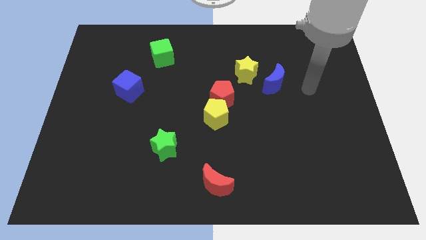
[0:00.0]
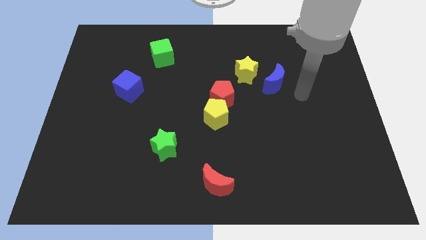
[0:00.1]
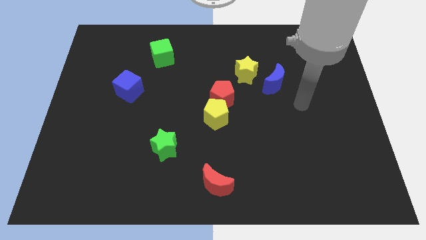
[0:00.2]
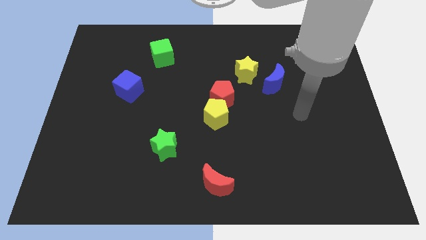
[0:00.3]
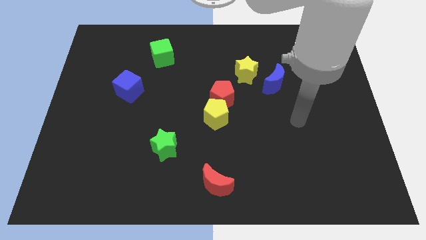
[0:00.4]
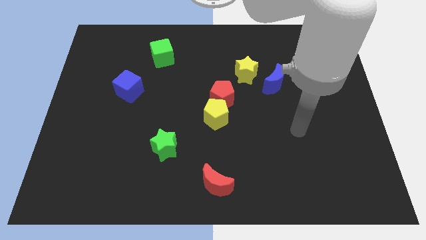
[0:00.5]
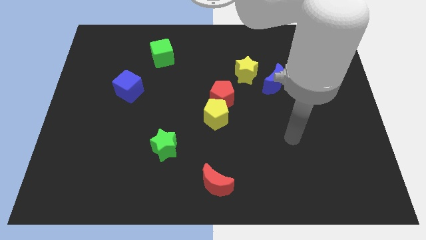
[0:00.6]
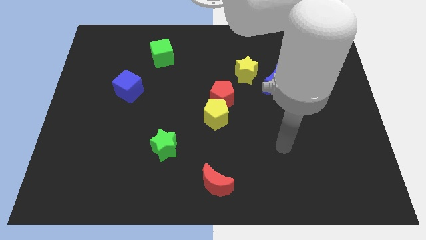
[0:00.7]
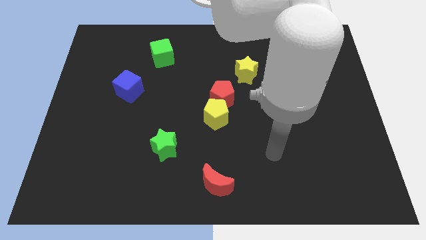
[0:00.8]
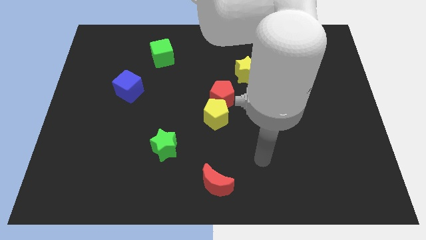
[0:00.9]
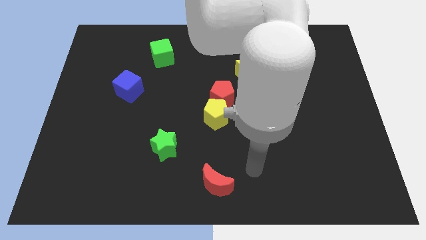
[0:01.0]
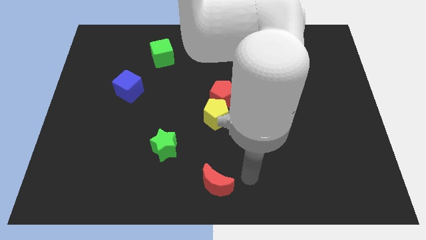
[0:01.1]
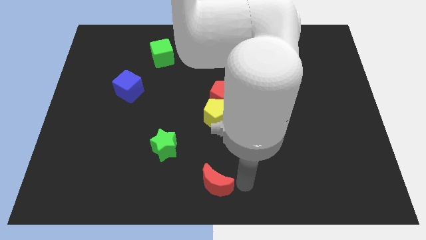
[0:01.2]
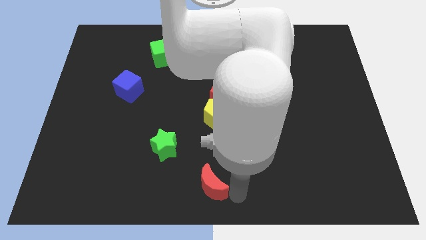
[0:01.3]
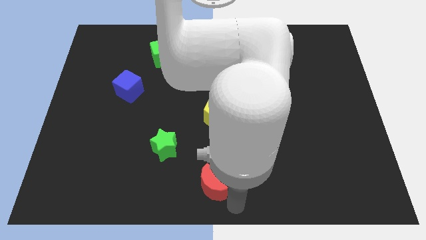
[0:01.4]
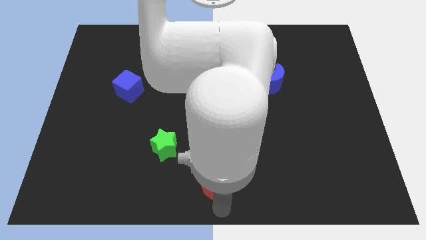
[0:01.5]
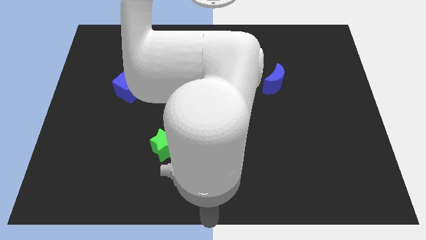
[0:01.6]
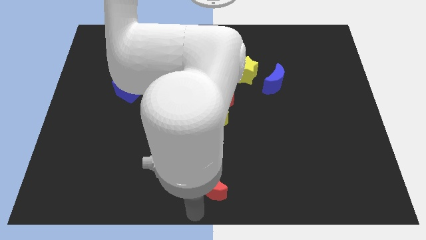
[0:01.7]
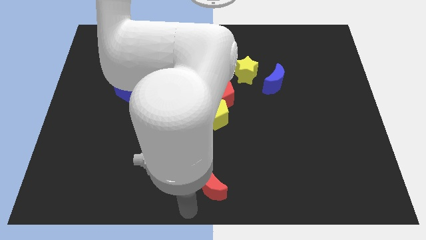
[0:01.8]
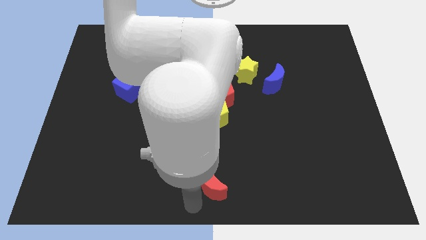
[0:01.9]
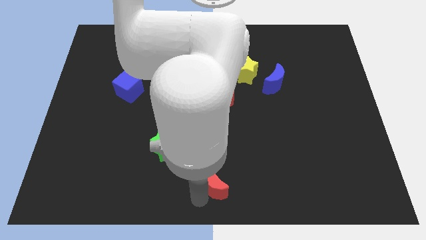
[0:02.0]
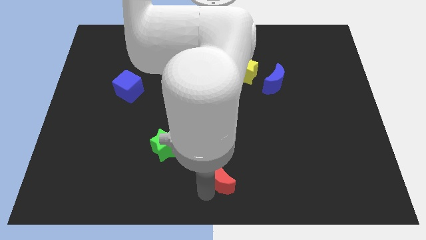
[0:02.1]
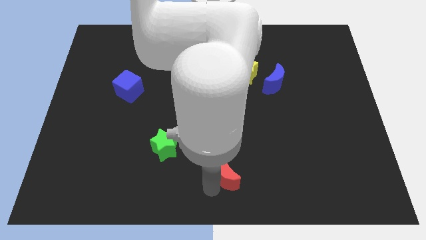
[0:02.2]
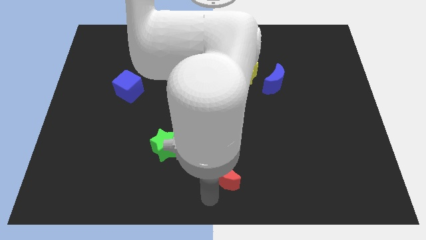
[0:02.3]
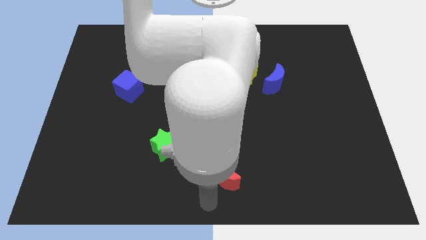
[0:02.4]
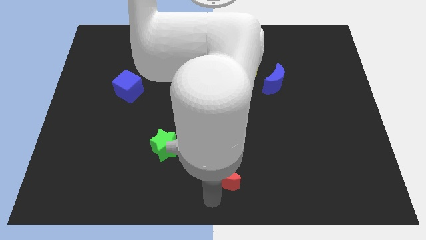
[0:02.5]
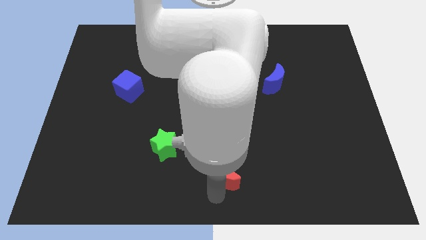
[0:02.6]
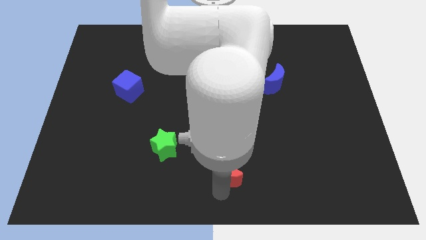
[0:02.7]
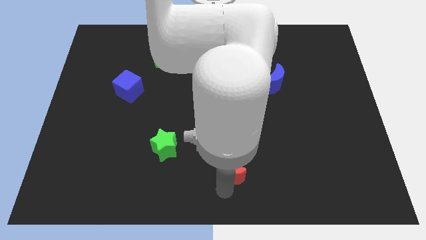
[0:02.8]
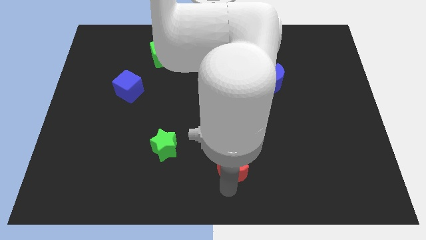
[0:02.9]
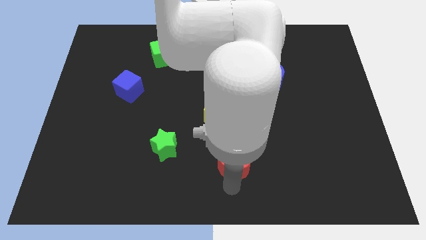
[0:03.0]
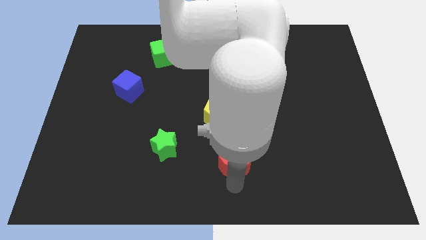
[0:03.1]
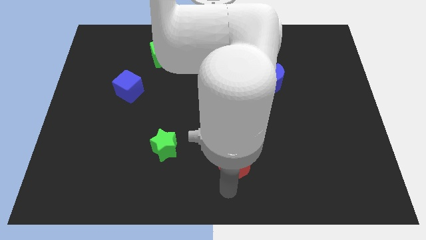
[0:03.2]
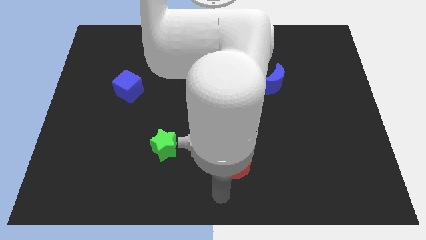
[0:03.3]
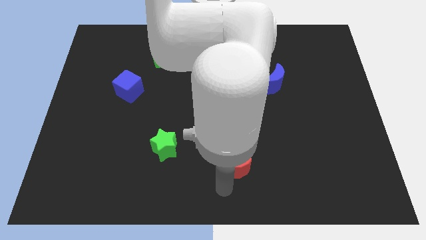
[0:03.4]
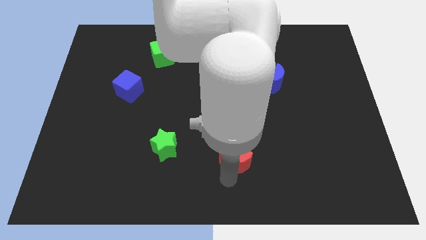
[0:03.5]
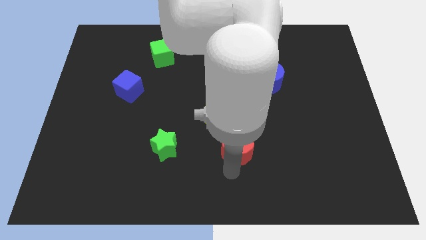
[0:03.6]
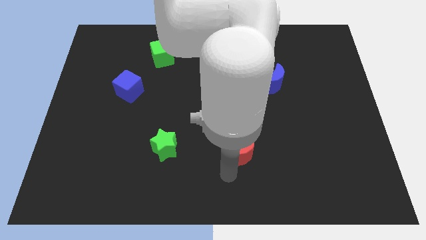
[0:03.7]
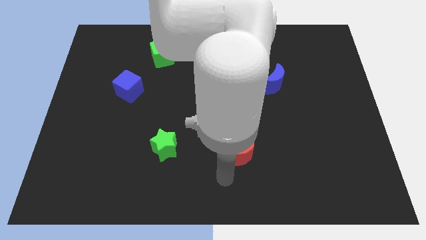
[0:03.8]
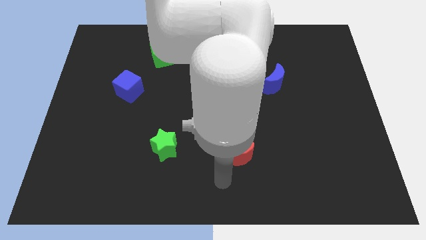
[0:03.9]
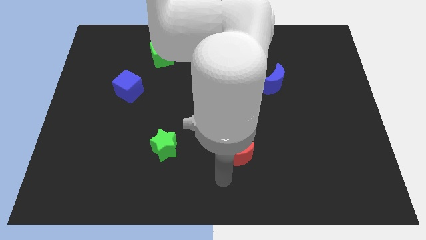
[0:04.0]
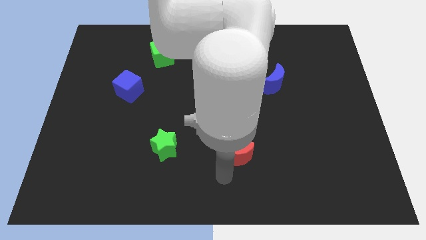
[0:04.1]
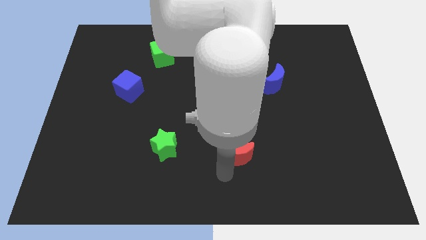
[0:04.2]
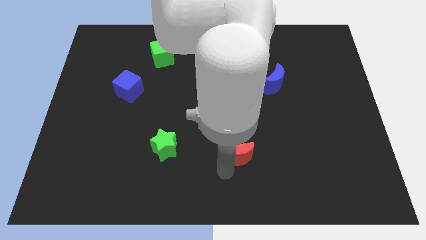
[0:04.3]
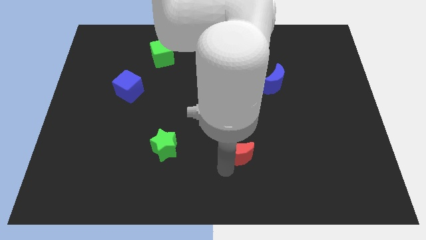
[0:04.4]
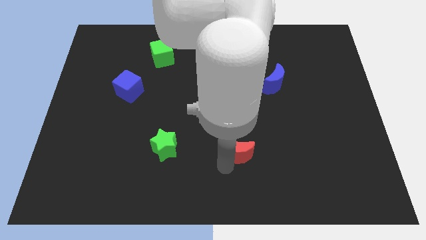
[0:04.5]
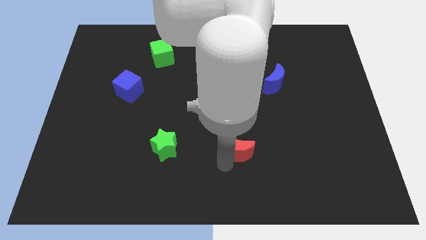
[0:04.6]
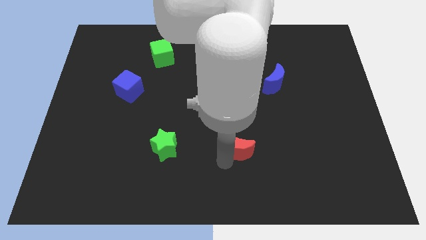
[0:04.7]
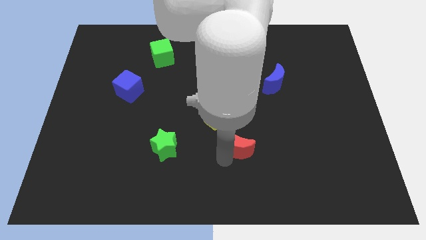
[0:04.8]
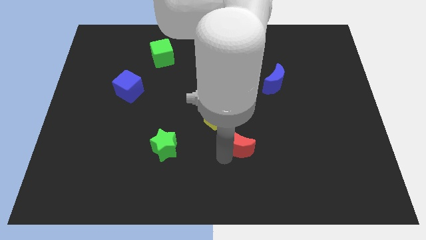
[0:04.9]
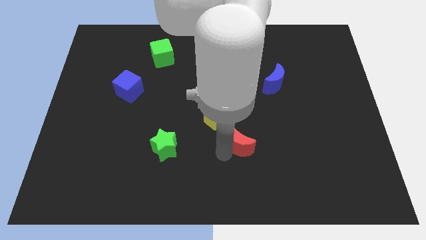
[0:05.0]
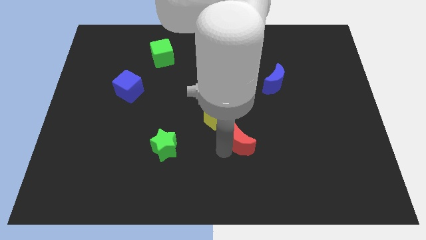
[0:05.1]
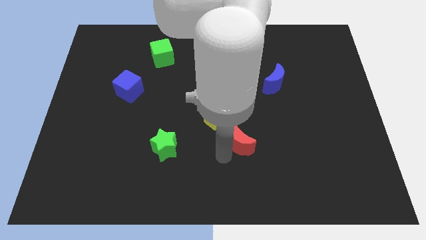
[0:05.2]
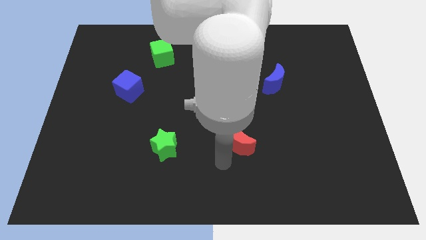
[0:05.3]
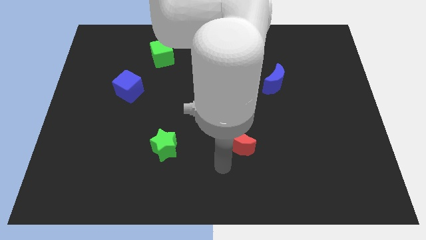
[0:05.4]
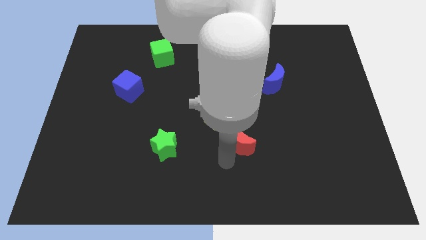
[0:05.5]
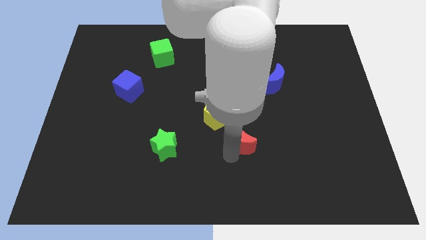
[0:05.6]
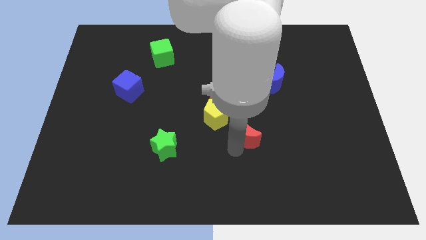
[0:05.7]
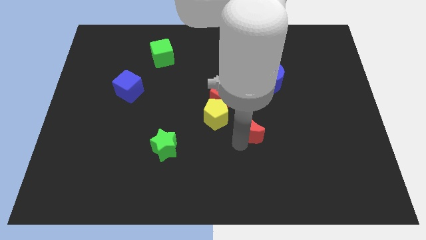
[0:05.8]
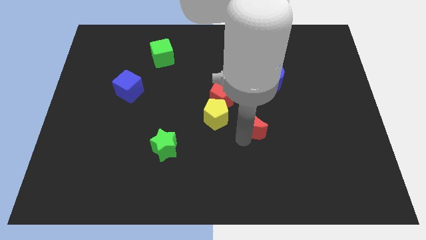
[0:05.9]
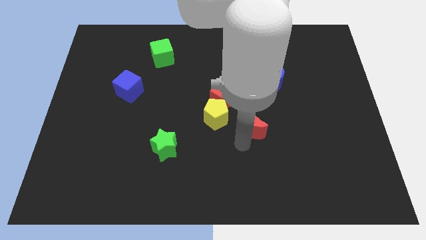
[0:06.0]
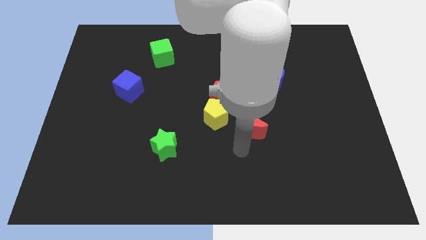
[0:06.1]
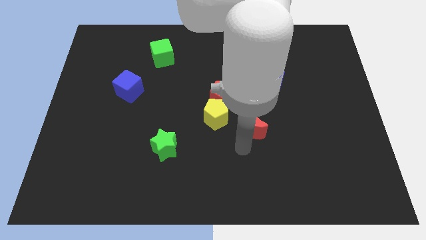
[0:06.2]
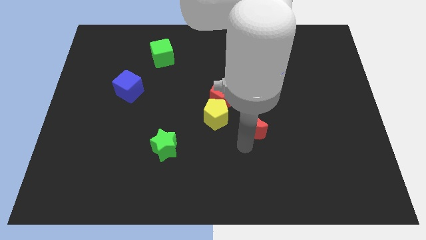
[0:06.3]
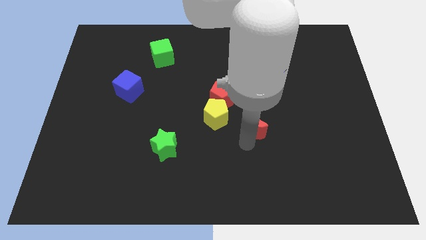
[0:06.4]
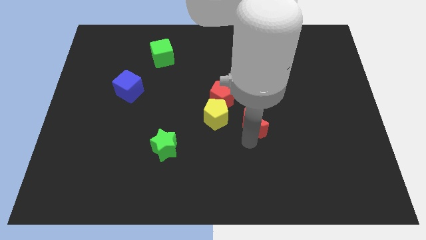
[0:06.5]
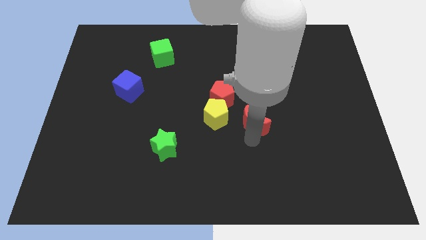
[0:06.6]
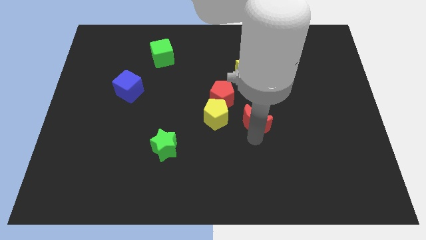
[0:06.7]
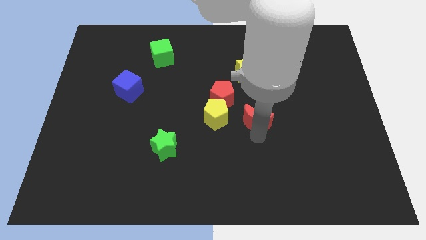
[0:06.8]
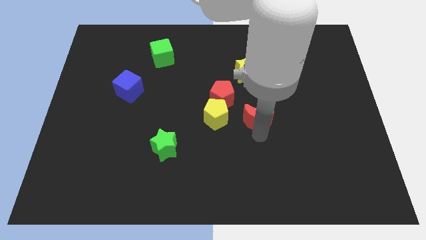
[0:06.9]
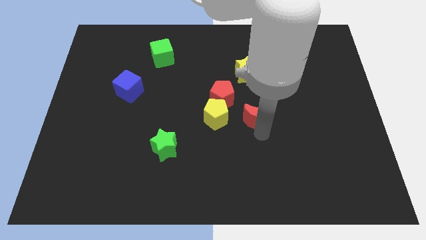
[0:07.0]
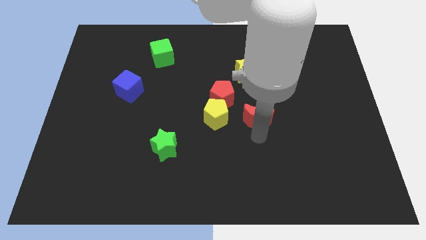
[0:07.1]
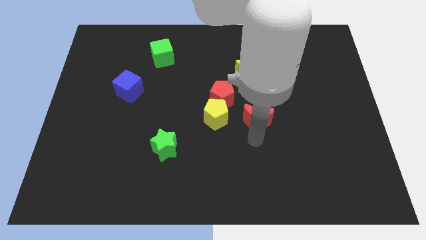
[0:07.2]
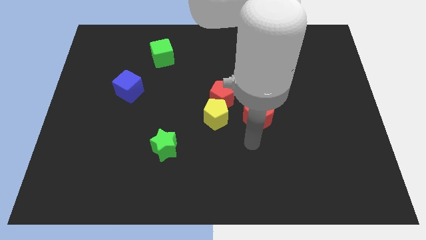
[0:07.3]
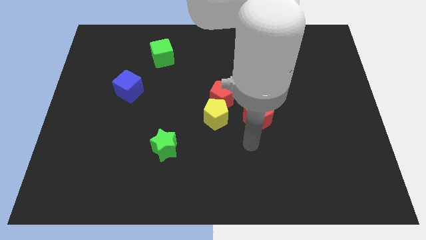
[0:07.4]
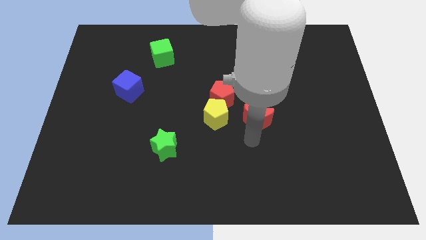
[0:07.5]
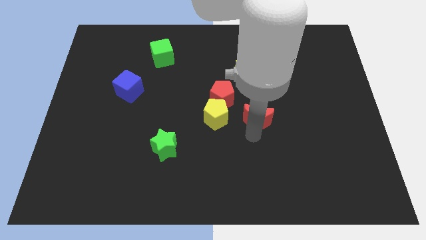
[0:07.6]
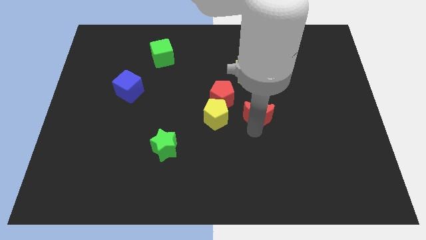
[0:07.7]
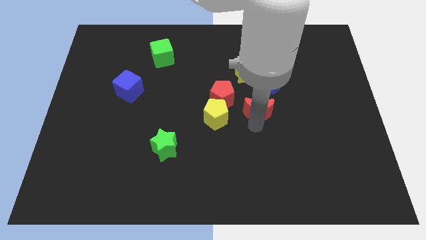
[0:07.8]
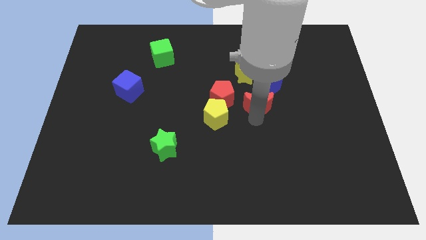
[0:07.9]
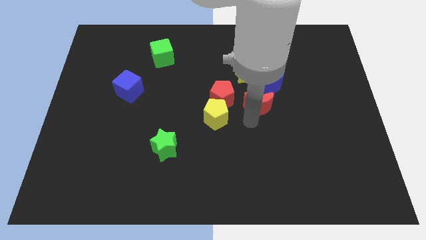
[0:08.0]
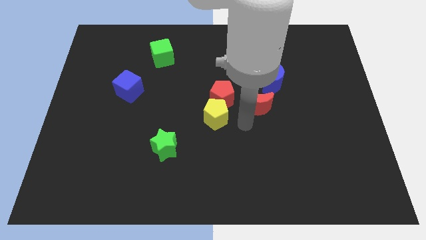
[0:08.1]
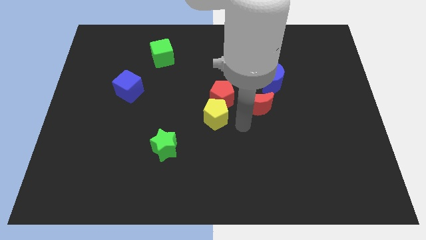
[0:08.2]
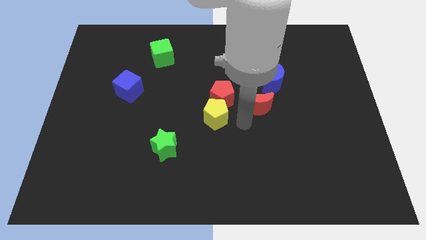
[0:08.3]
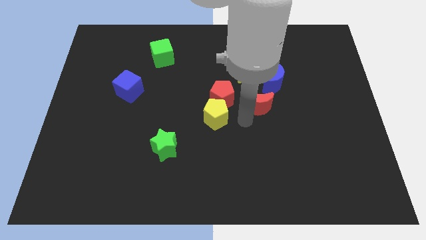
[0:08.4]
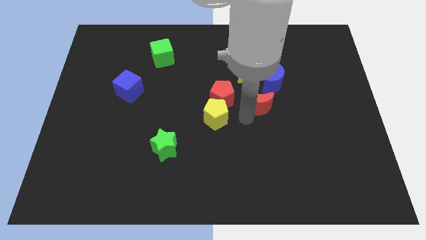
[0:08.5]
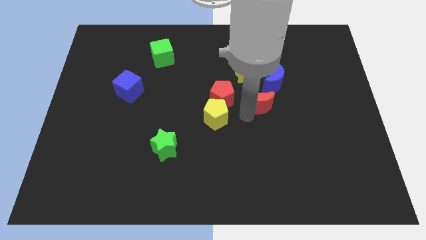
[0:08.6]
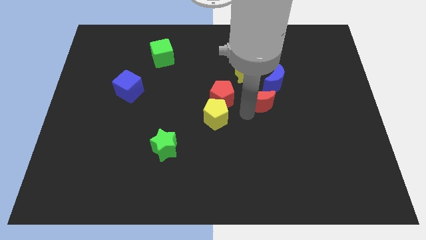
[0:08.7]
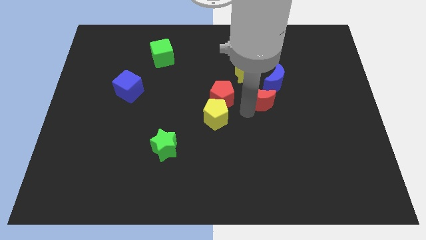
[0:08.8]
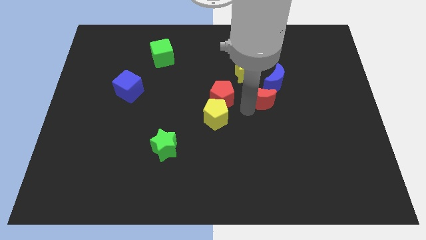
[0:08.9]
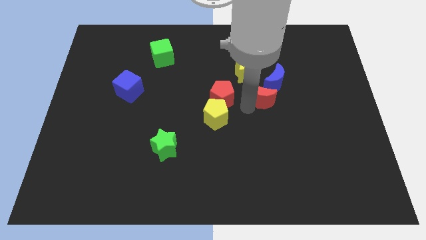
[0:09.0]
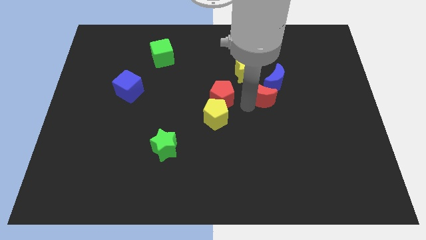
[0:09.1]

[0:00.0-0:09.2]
move the red moon next to the blue moon
